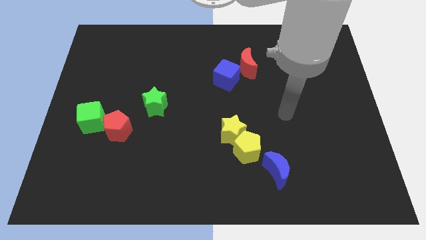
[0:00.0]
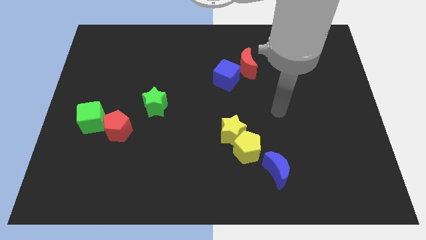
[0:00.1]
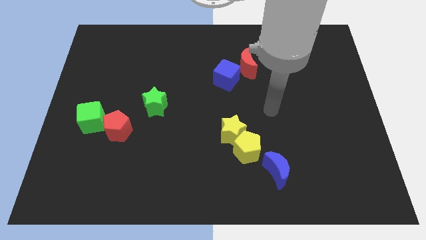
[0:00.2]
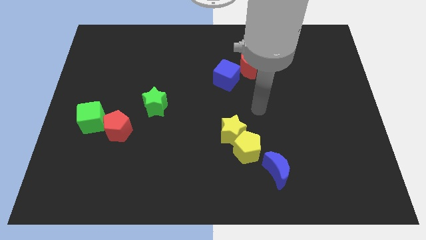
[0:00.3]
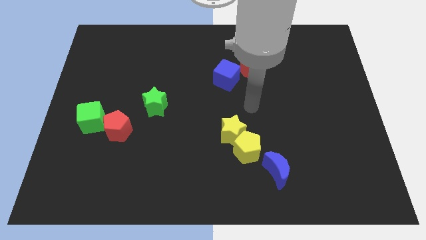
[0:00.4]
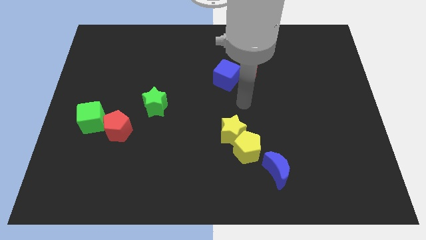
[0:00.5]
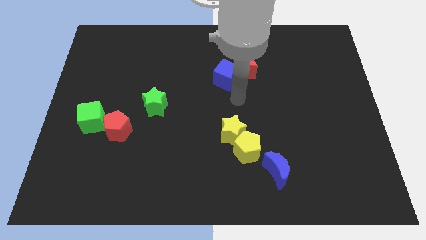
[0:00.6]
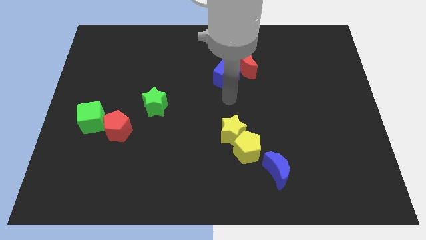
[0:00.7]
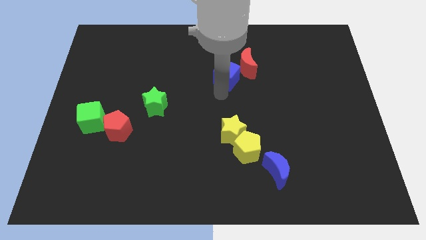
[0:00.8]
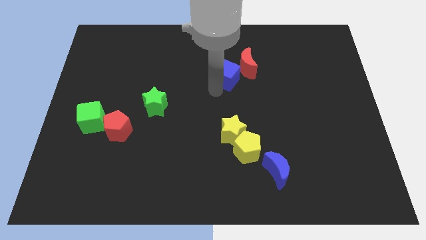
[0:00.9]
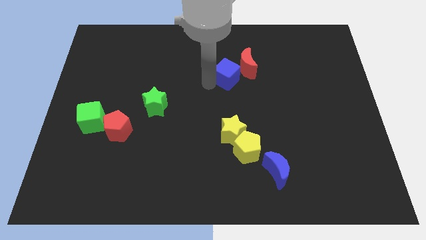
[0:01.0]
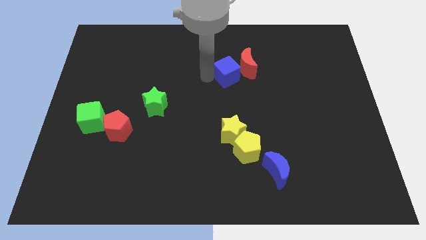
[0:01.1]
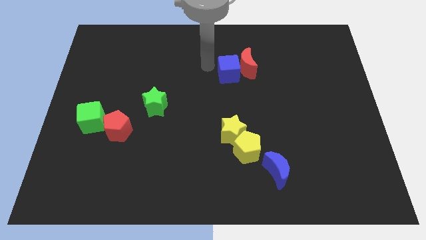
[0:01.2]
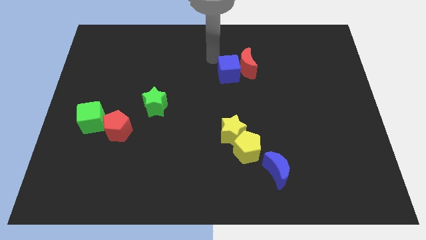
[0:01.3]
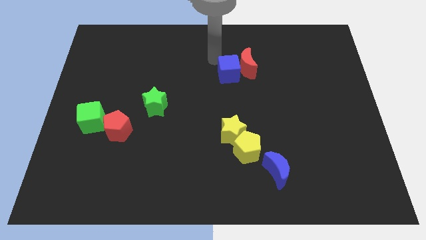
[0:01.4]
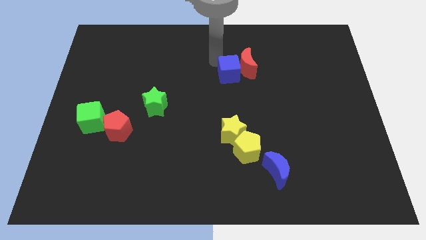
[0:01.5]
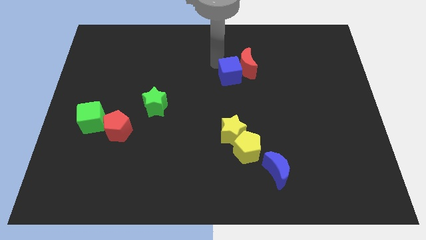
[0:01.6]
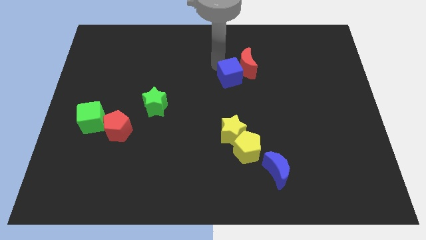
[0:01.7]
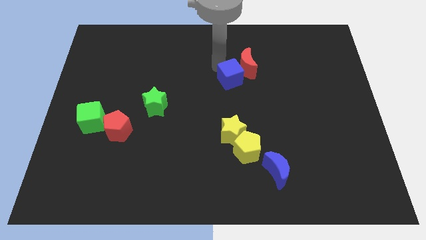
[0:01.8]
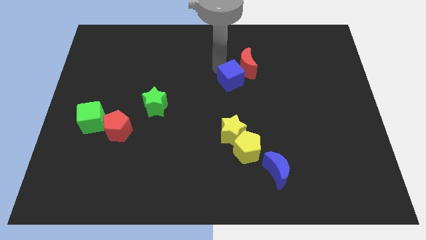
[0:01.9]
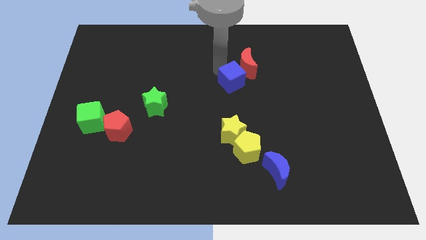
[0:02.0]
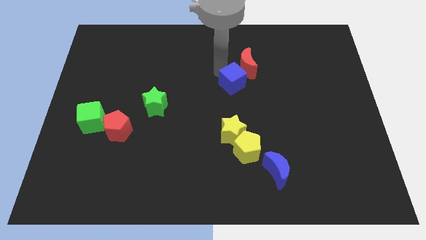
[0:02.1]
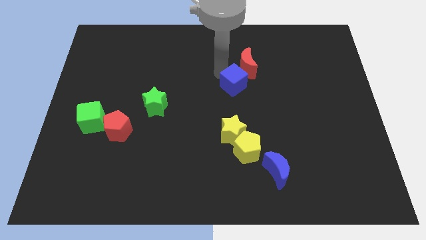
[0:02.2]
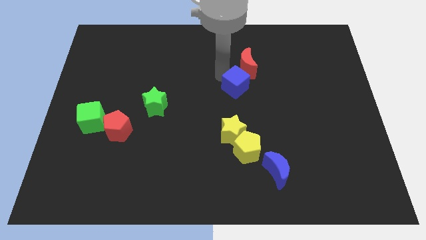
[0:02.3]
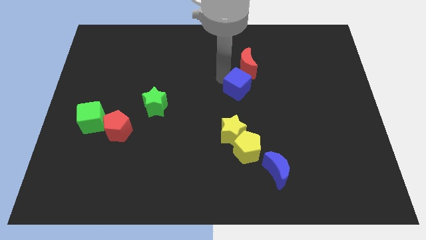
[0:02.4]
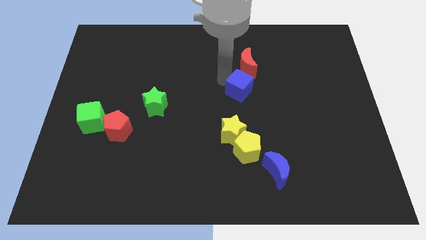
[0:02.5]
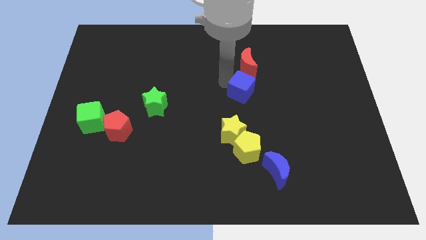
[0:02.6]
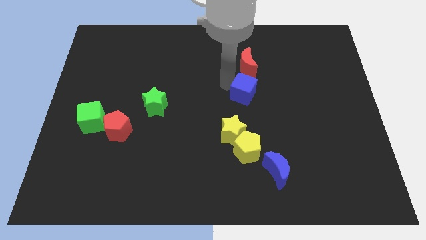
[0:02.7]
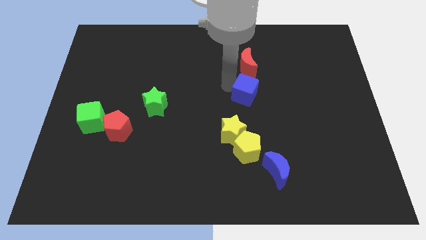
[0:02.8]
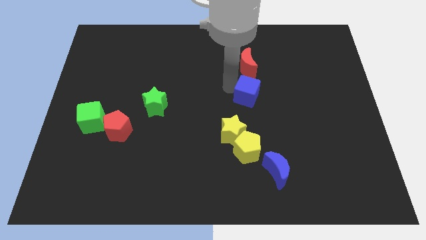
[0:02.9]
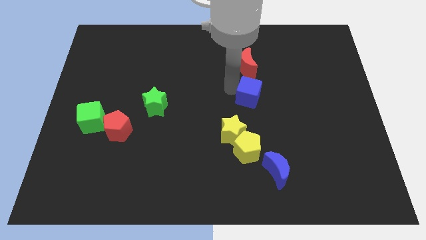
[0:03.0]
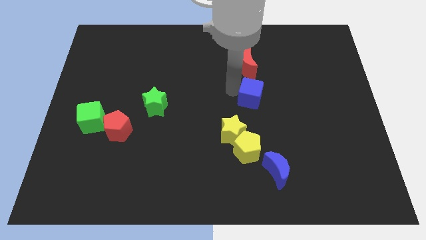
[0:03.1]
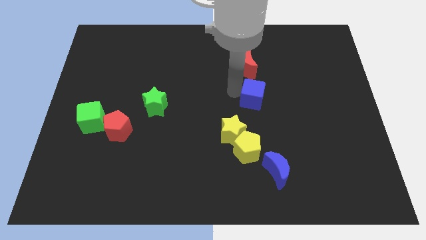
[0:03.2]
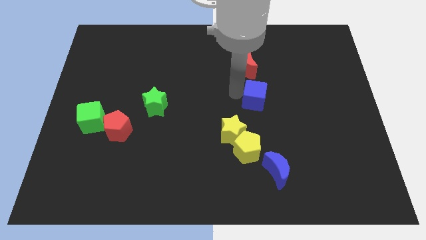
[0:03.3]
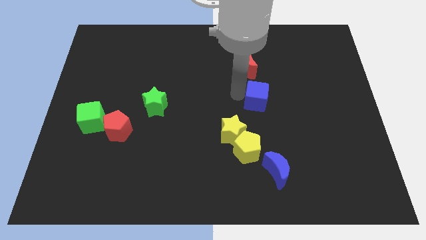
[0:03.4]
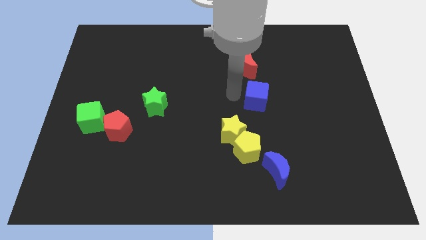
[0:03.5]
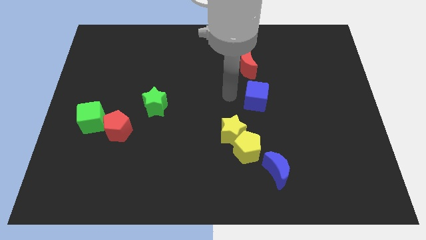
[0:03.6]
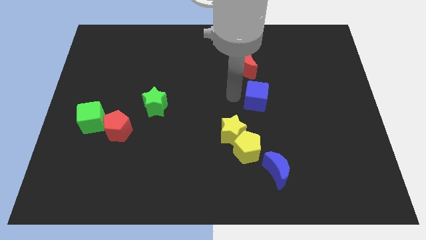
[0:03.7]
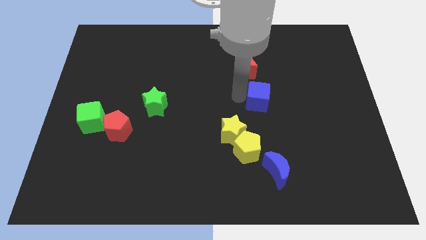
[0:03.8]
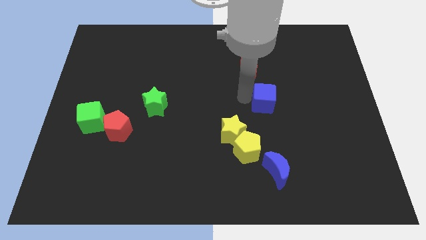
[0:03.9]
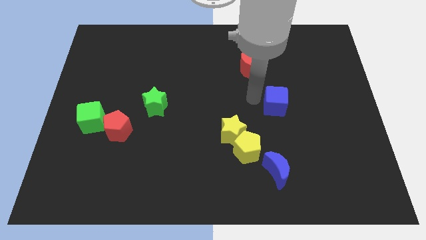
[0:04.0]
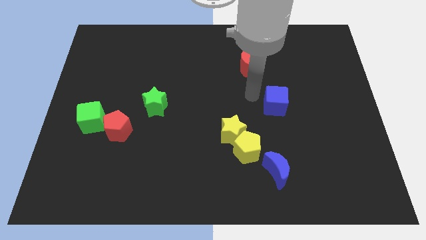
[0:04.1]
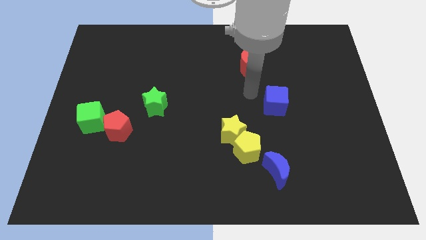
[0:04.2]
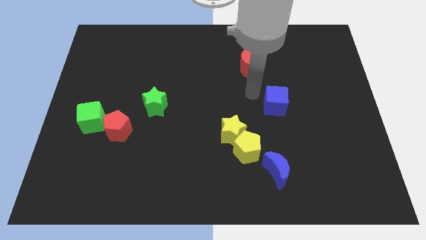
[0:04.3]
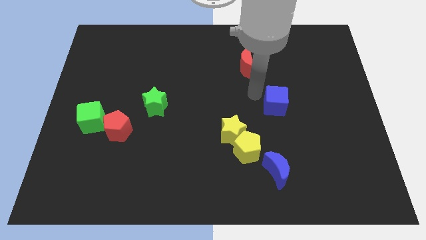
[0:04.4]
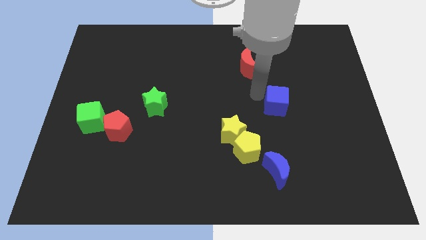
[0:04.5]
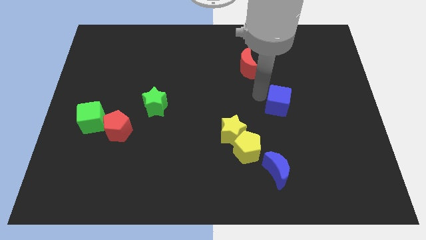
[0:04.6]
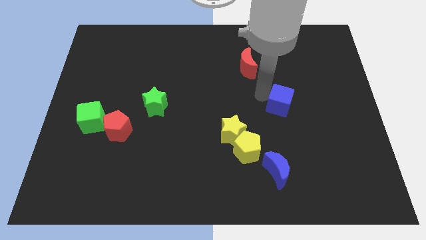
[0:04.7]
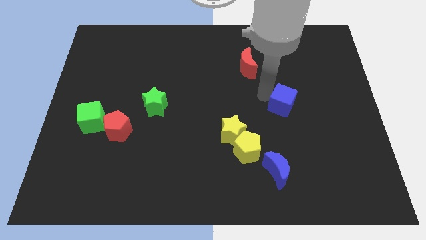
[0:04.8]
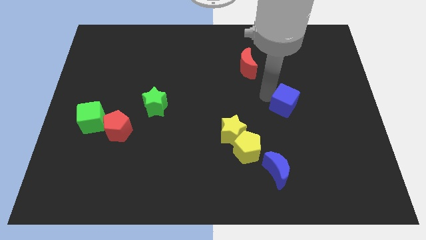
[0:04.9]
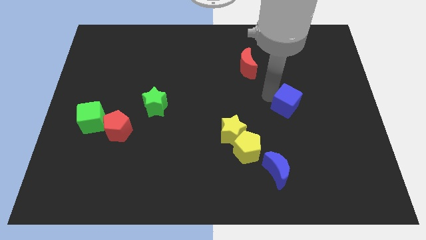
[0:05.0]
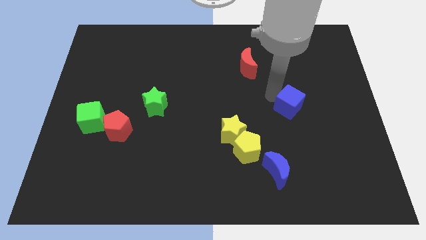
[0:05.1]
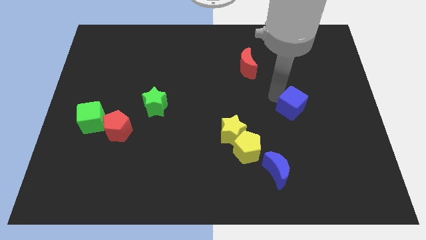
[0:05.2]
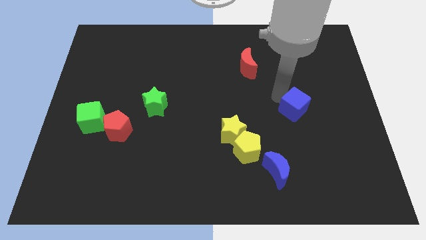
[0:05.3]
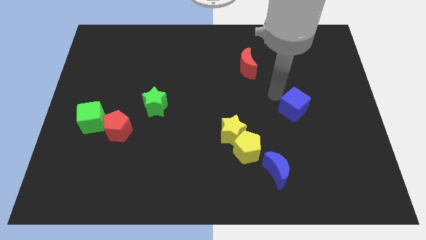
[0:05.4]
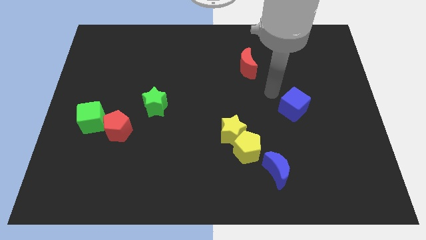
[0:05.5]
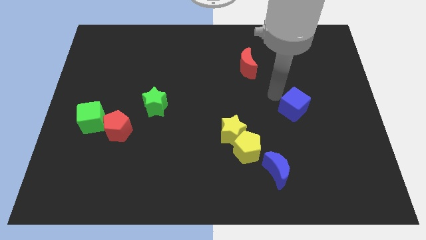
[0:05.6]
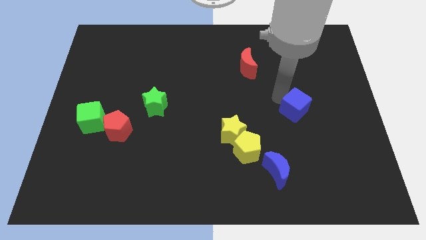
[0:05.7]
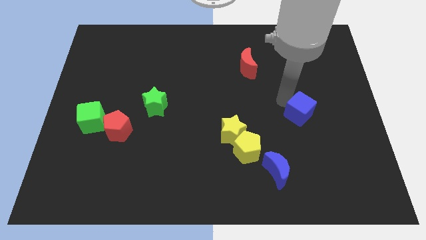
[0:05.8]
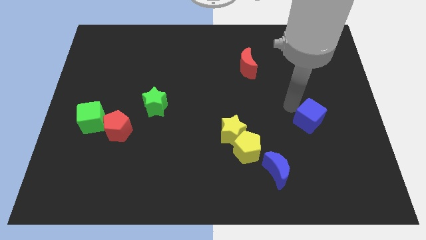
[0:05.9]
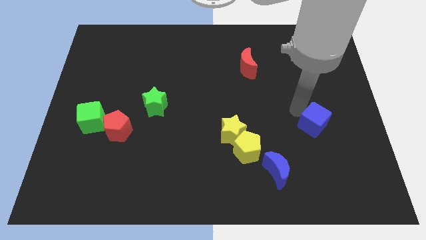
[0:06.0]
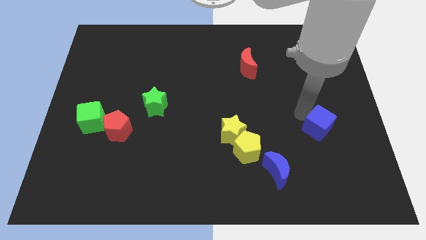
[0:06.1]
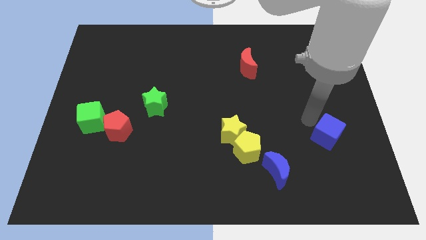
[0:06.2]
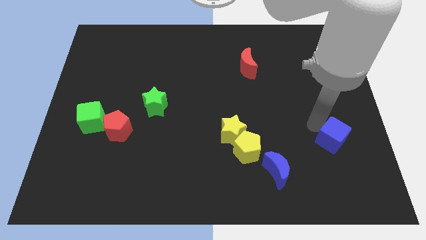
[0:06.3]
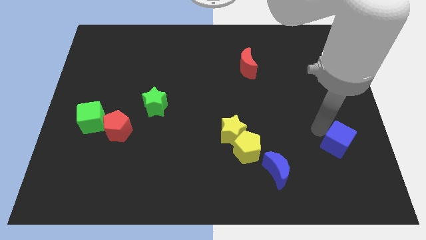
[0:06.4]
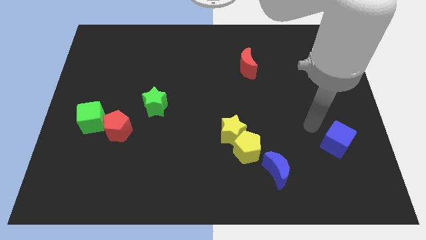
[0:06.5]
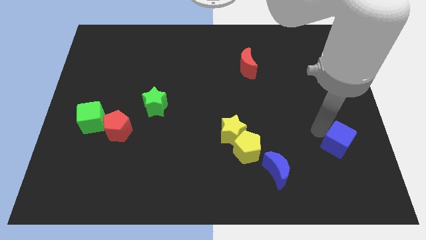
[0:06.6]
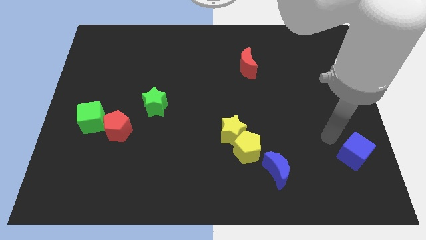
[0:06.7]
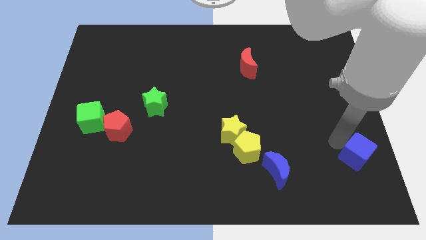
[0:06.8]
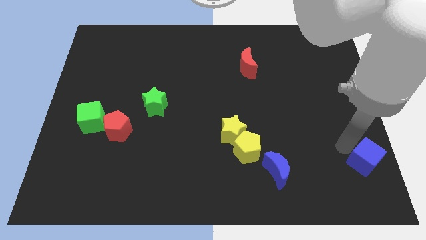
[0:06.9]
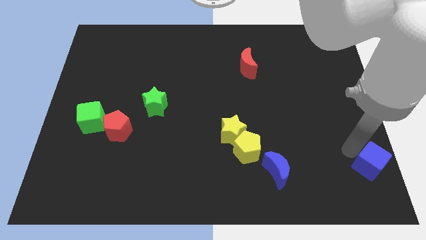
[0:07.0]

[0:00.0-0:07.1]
put the blue cube to the lower right corner
